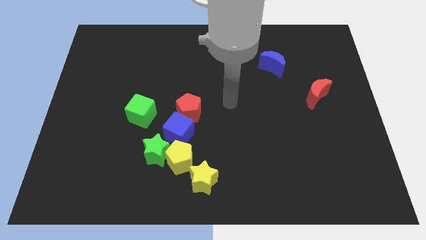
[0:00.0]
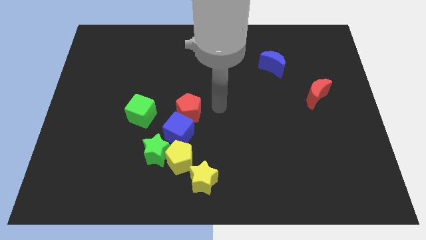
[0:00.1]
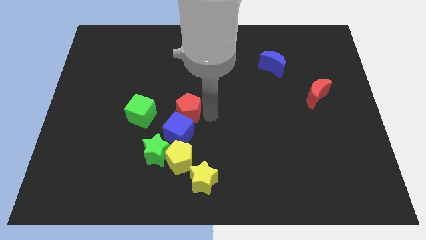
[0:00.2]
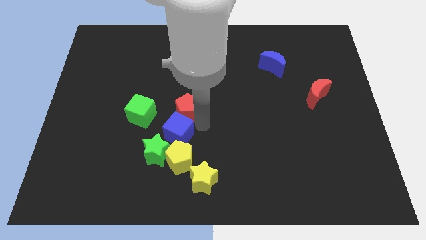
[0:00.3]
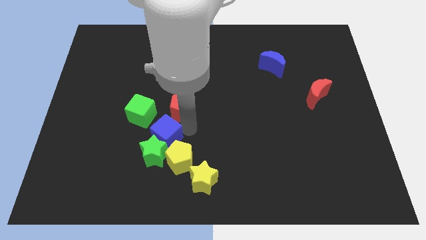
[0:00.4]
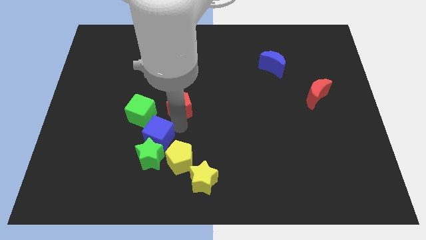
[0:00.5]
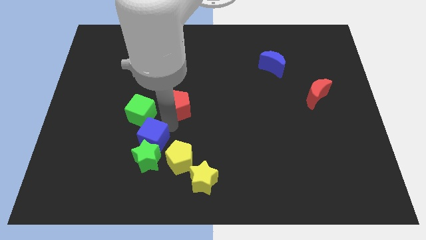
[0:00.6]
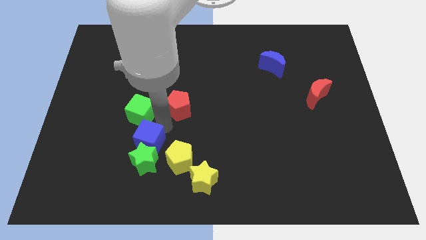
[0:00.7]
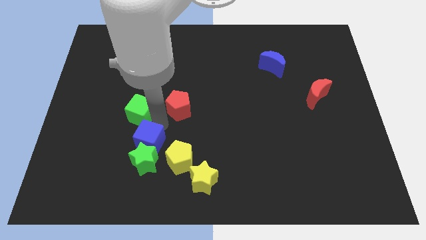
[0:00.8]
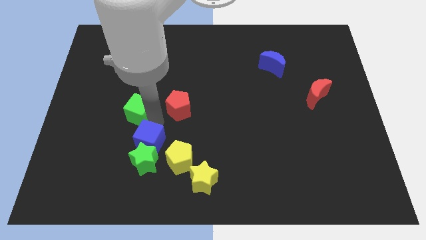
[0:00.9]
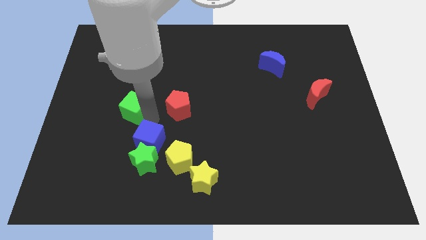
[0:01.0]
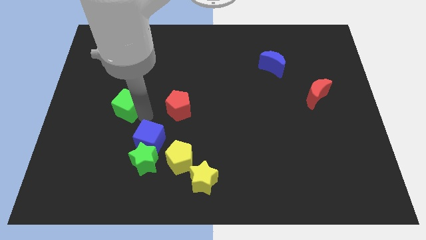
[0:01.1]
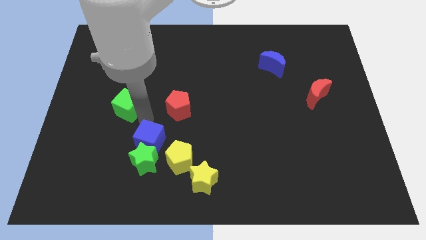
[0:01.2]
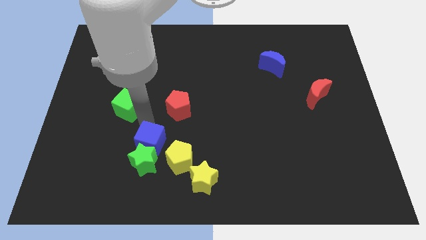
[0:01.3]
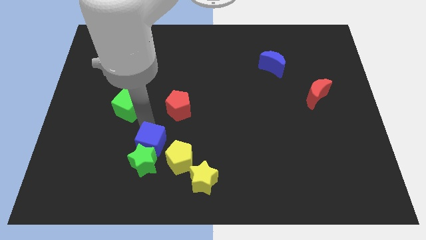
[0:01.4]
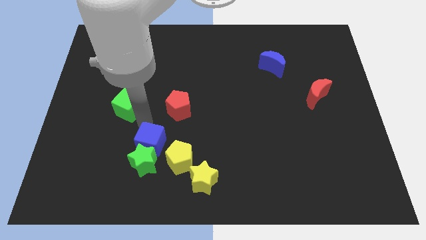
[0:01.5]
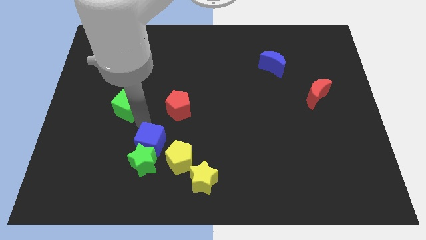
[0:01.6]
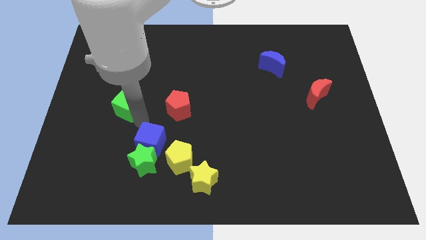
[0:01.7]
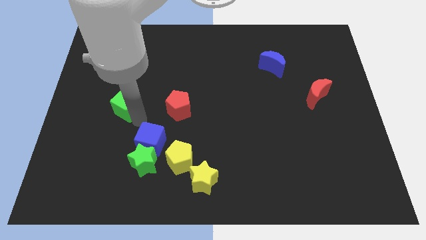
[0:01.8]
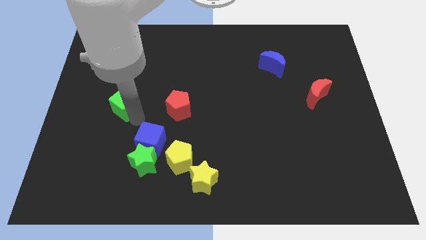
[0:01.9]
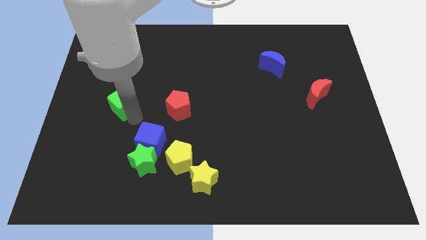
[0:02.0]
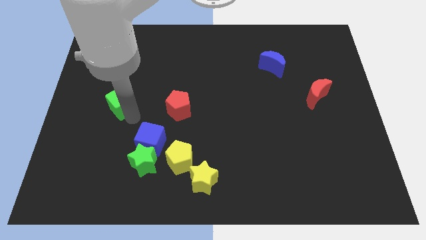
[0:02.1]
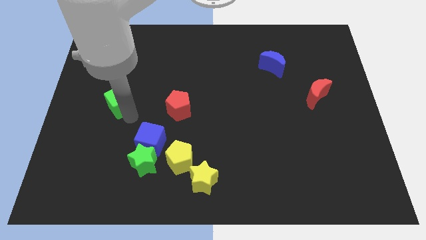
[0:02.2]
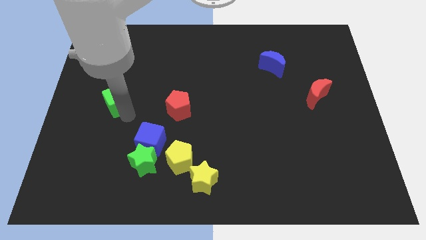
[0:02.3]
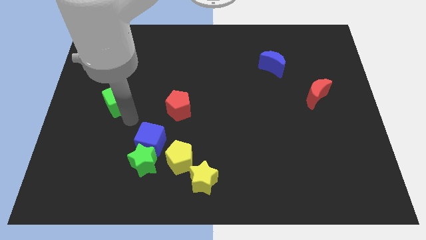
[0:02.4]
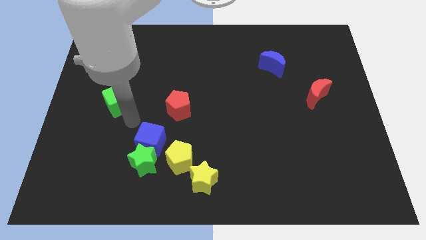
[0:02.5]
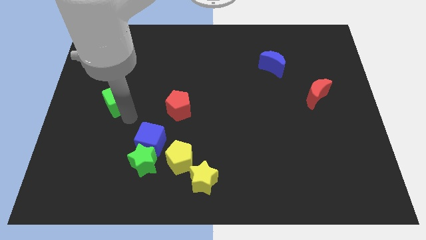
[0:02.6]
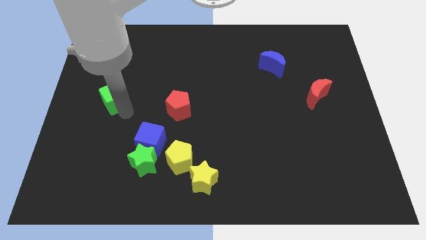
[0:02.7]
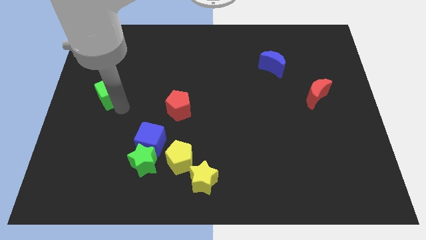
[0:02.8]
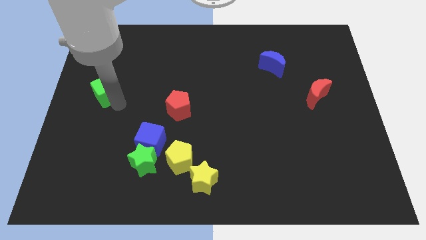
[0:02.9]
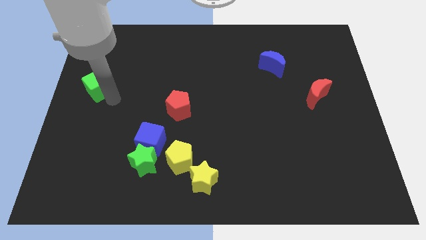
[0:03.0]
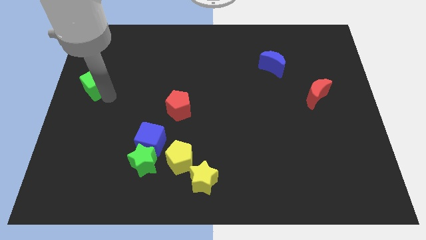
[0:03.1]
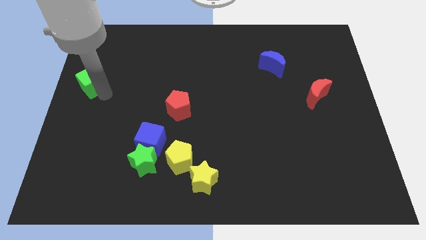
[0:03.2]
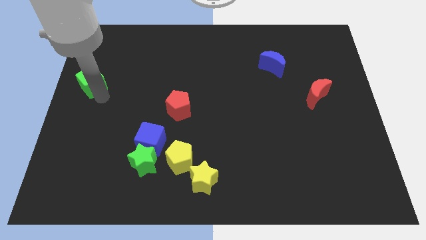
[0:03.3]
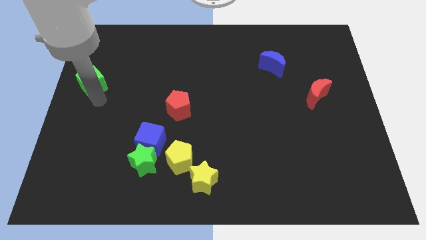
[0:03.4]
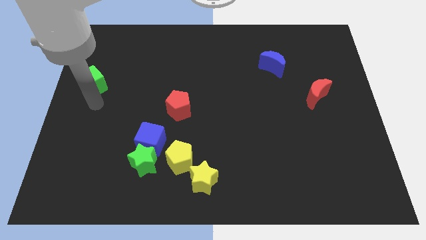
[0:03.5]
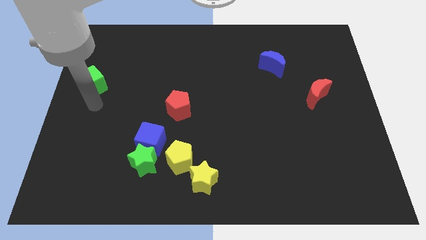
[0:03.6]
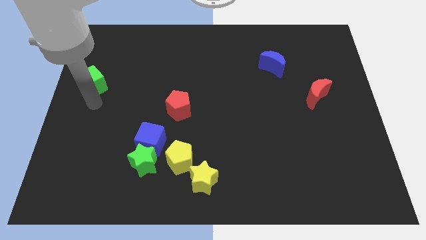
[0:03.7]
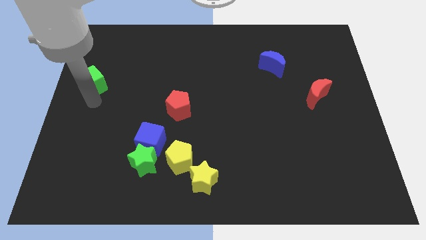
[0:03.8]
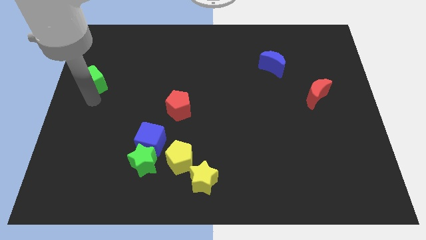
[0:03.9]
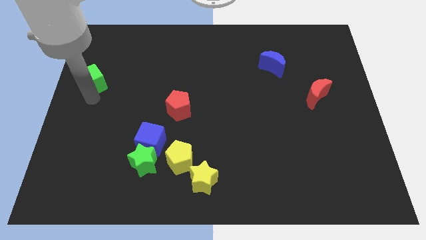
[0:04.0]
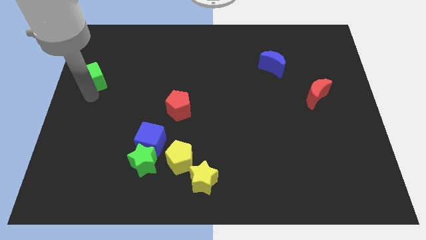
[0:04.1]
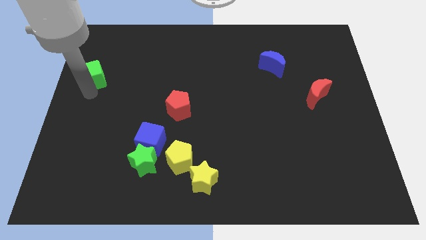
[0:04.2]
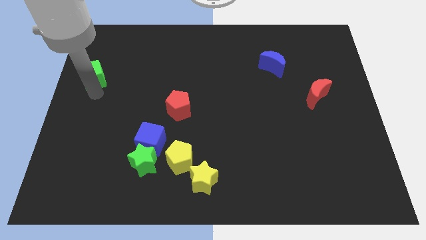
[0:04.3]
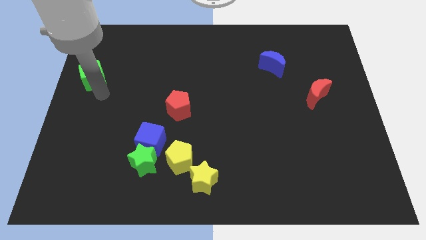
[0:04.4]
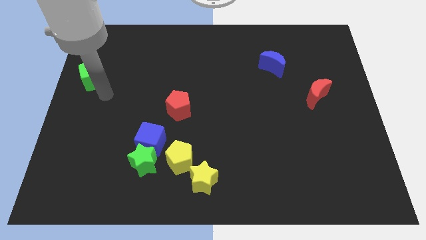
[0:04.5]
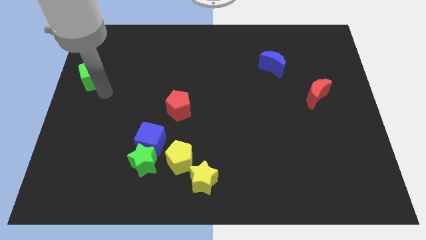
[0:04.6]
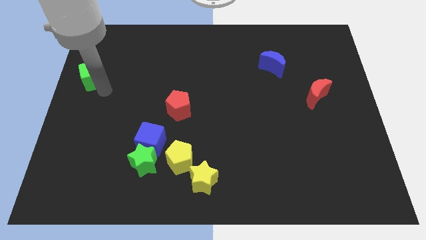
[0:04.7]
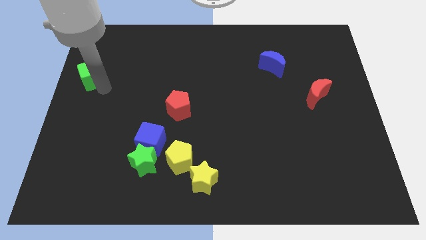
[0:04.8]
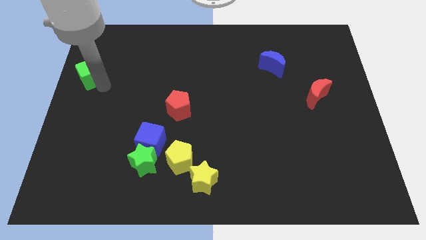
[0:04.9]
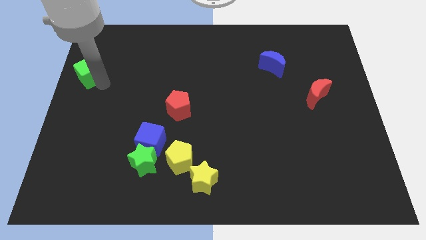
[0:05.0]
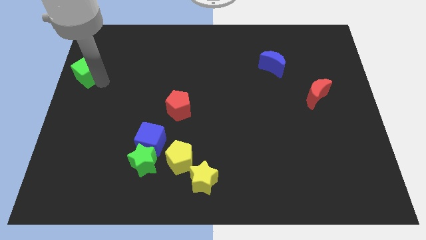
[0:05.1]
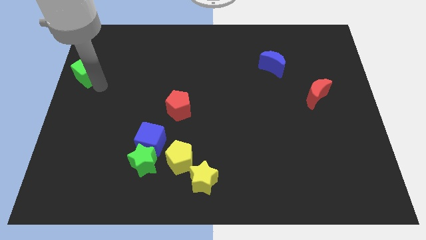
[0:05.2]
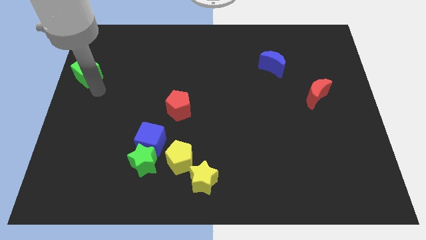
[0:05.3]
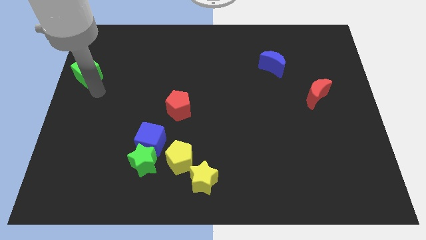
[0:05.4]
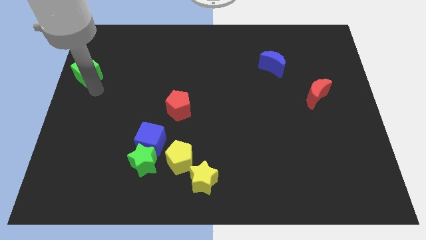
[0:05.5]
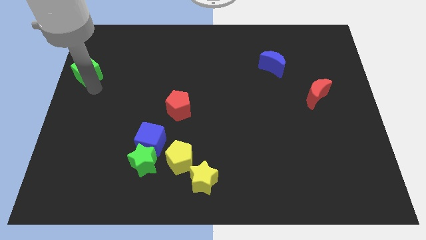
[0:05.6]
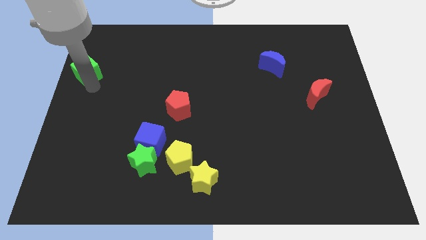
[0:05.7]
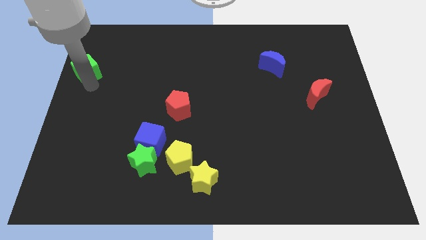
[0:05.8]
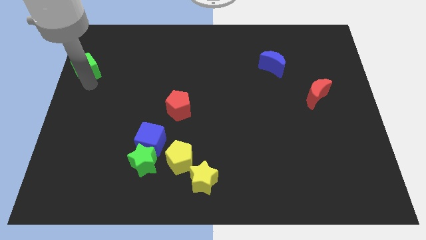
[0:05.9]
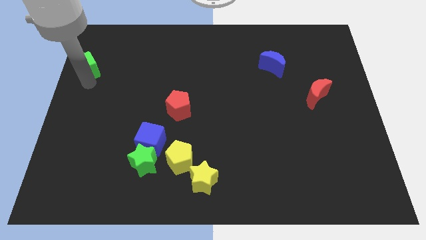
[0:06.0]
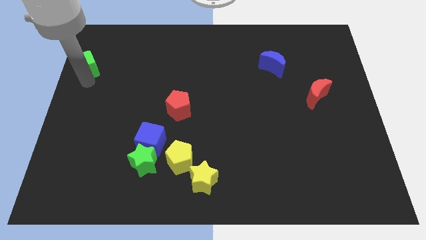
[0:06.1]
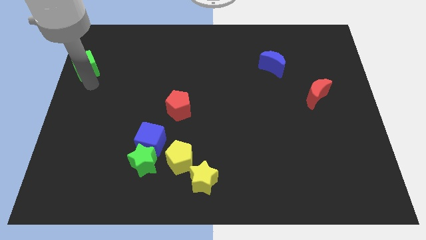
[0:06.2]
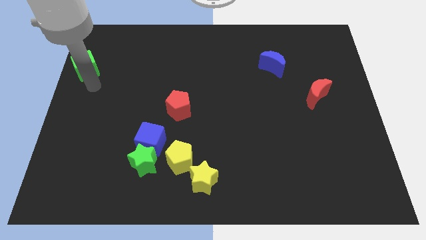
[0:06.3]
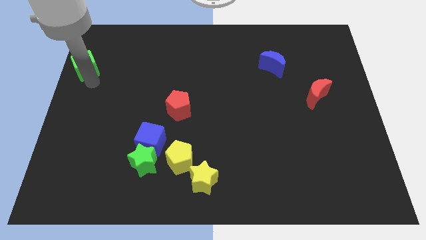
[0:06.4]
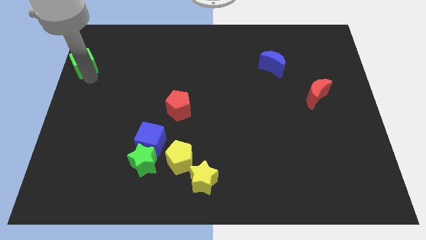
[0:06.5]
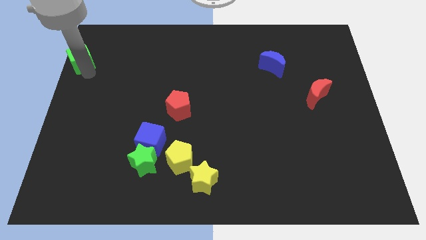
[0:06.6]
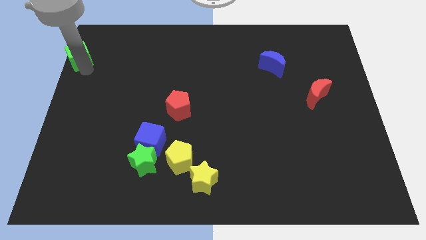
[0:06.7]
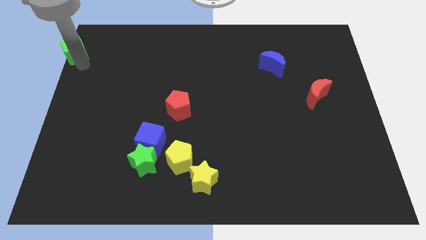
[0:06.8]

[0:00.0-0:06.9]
move the green cube to the top left
